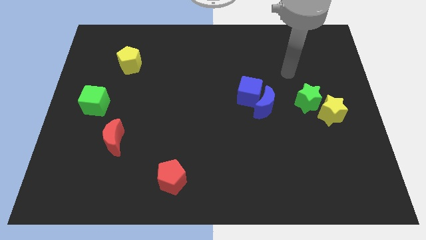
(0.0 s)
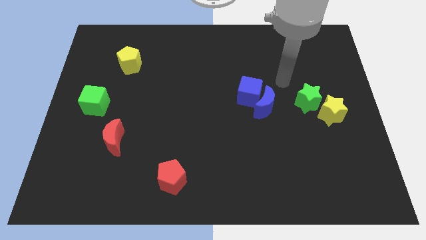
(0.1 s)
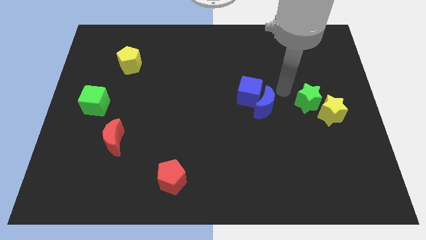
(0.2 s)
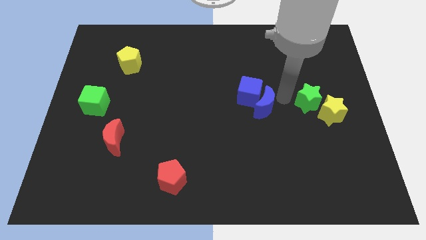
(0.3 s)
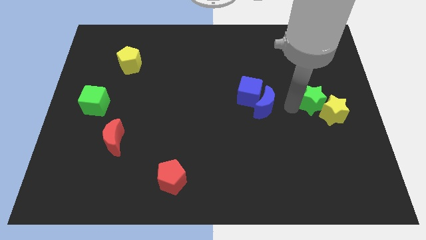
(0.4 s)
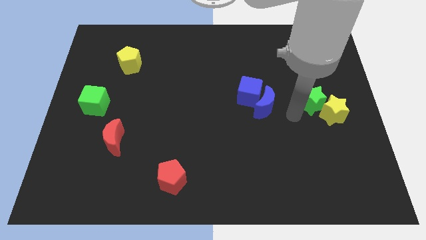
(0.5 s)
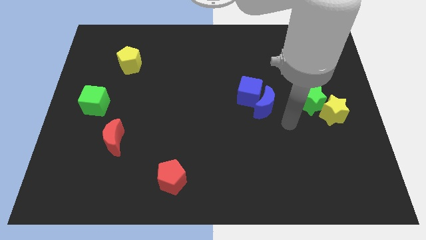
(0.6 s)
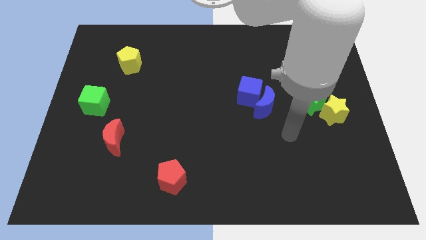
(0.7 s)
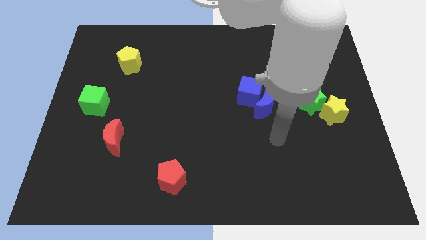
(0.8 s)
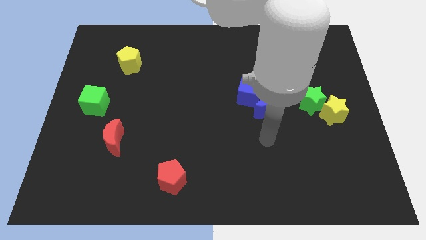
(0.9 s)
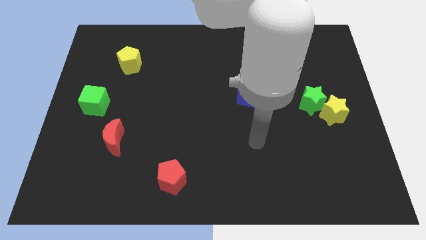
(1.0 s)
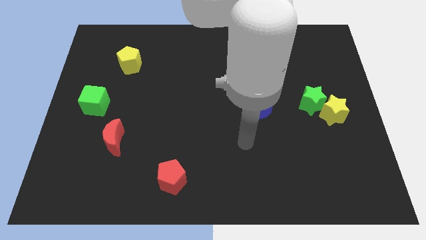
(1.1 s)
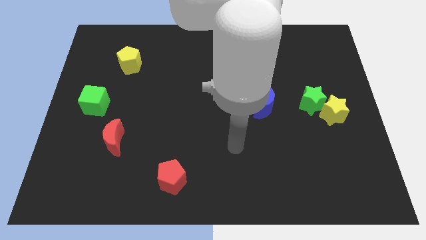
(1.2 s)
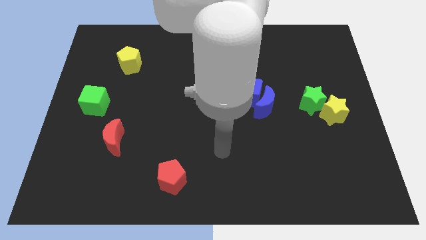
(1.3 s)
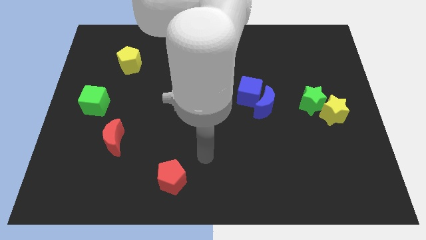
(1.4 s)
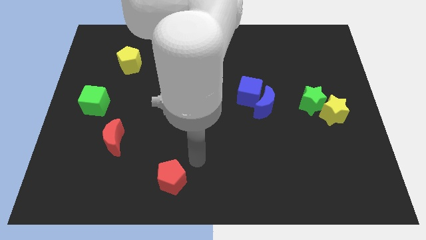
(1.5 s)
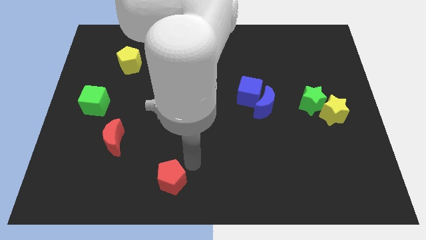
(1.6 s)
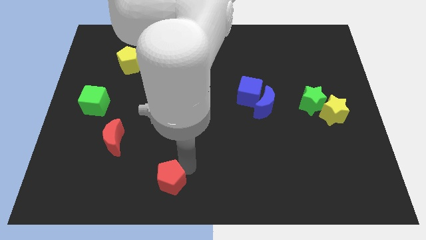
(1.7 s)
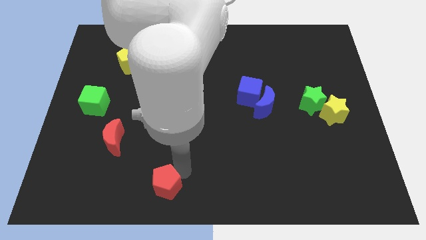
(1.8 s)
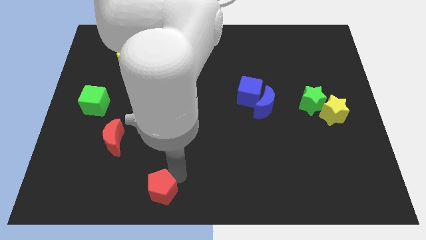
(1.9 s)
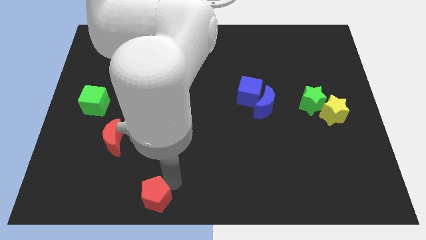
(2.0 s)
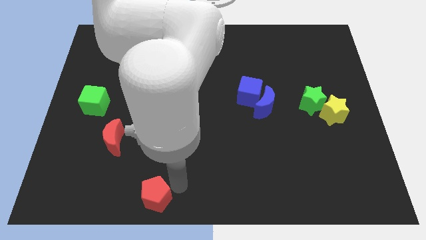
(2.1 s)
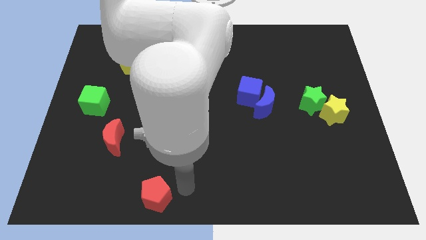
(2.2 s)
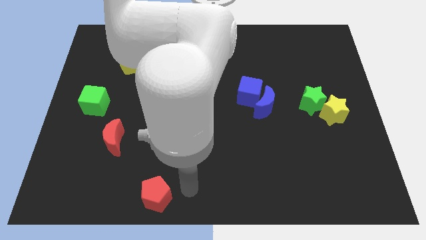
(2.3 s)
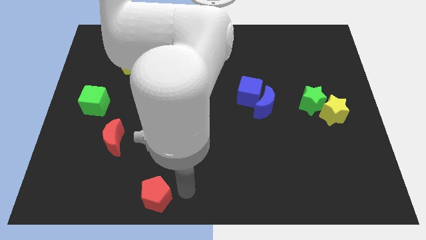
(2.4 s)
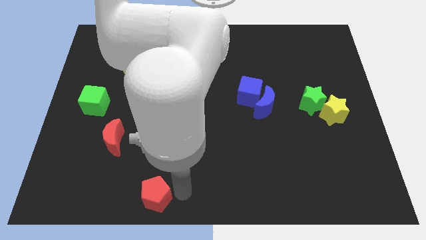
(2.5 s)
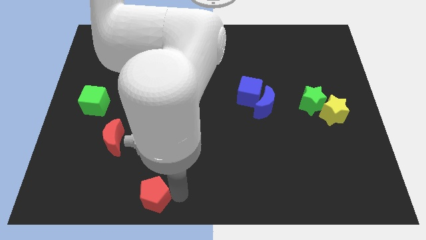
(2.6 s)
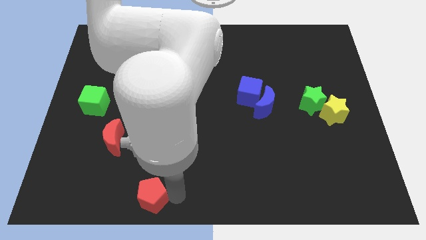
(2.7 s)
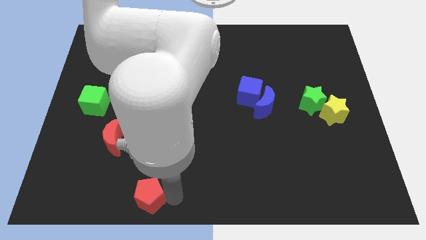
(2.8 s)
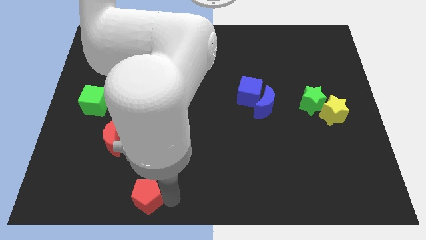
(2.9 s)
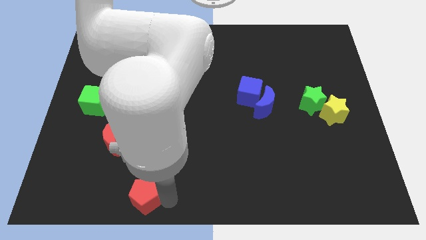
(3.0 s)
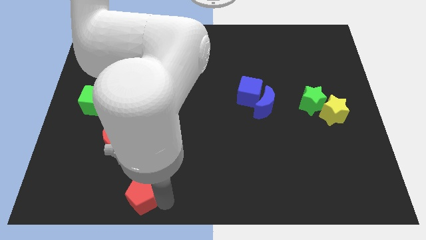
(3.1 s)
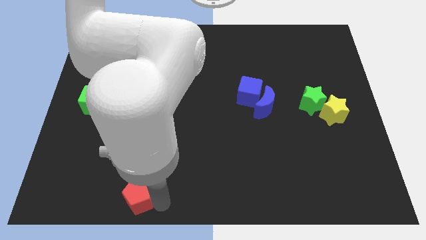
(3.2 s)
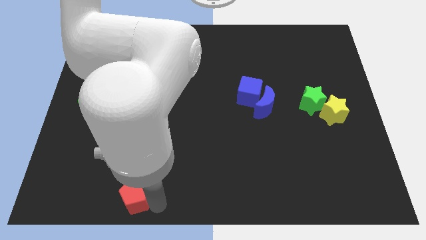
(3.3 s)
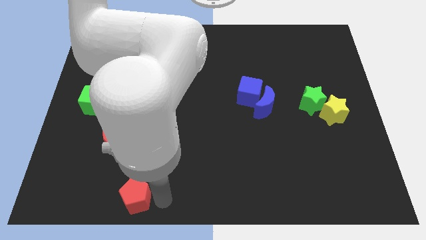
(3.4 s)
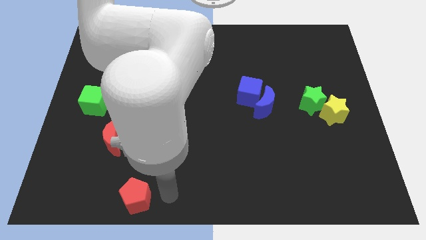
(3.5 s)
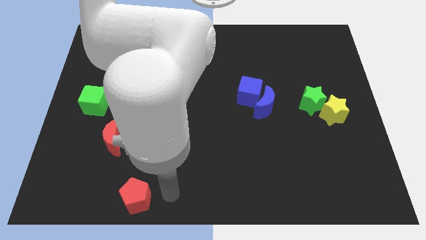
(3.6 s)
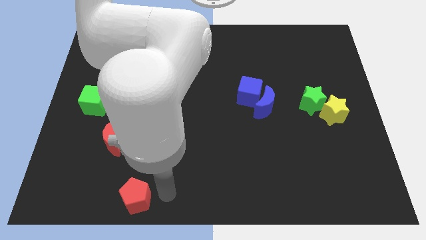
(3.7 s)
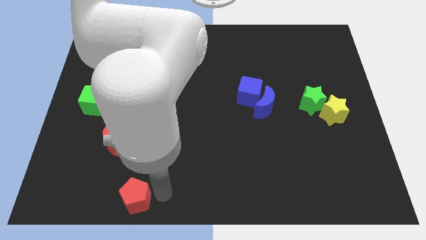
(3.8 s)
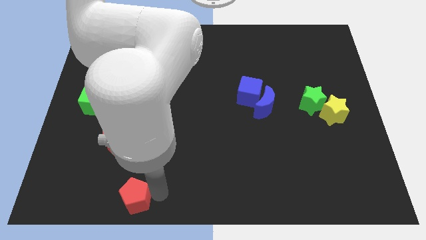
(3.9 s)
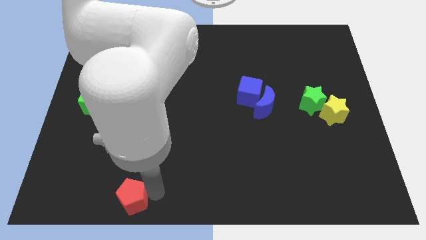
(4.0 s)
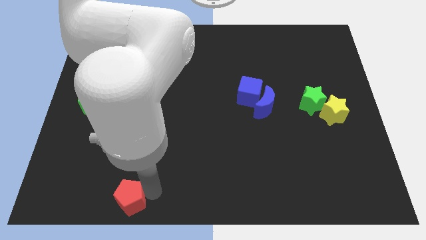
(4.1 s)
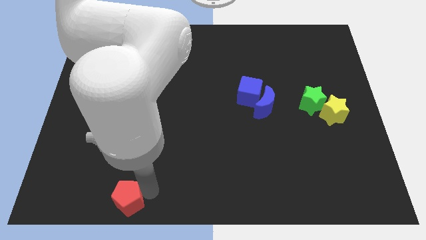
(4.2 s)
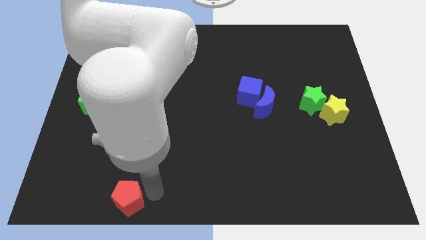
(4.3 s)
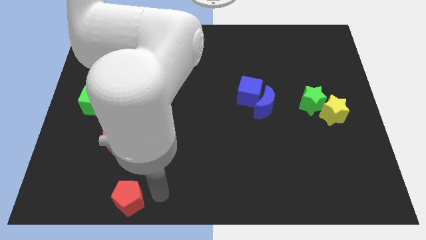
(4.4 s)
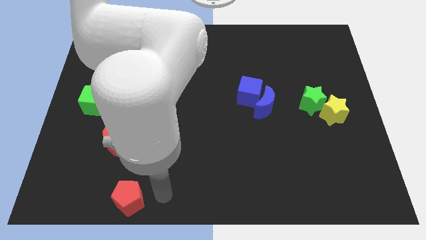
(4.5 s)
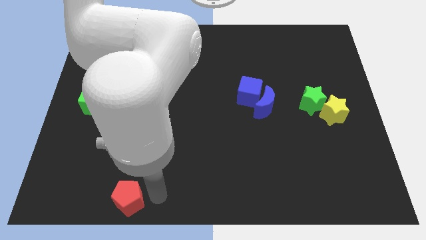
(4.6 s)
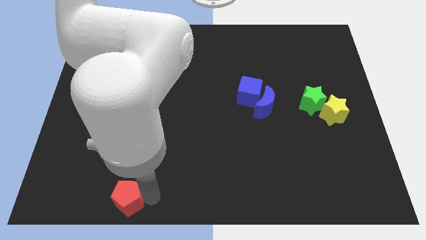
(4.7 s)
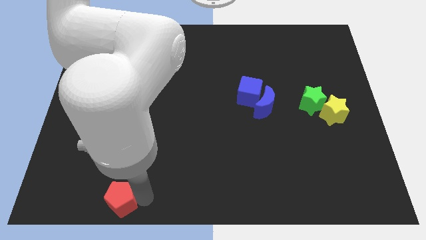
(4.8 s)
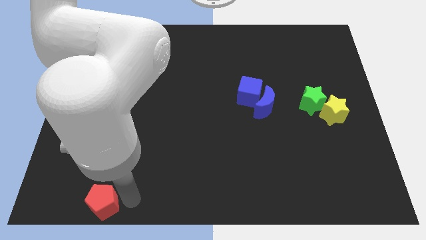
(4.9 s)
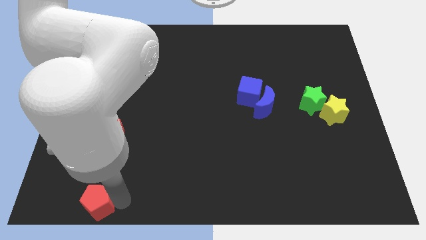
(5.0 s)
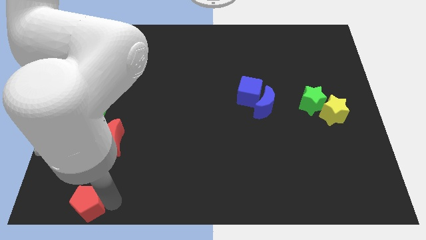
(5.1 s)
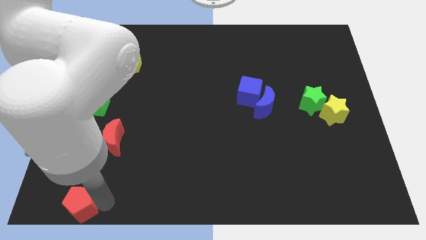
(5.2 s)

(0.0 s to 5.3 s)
put the red pentagon to the bottom left corner
